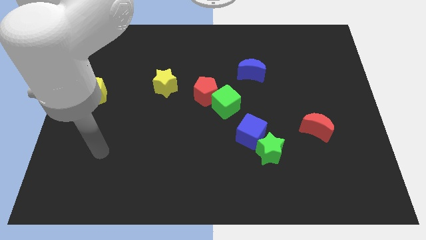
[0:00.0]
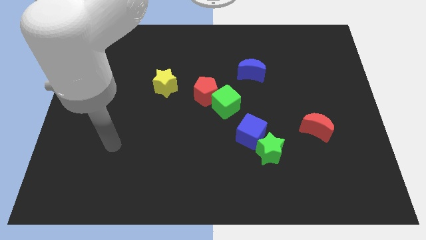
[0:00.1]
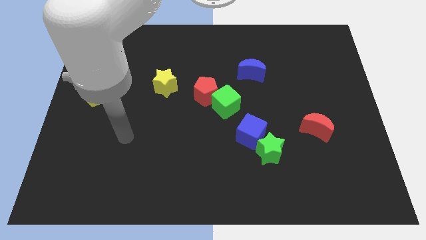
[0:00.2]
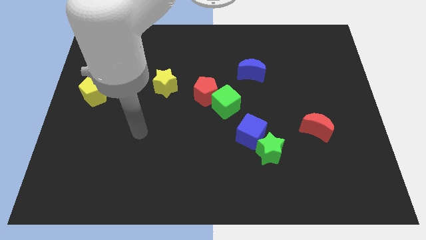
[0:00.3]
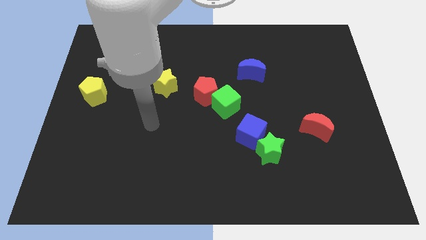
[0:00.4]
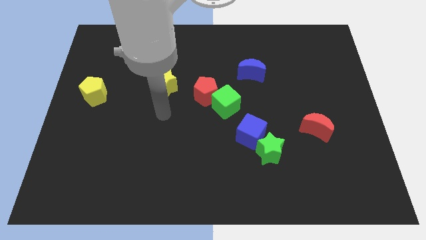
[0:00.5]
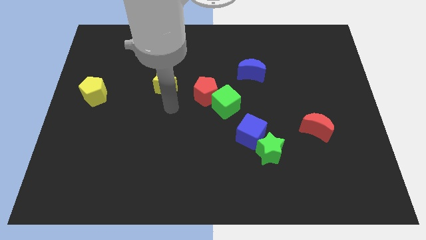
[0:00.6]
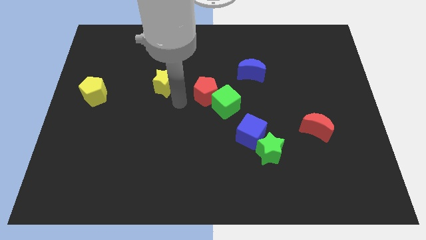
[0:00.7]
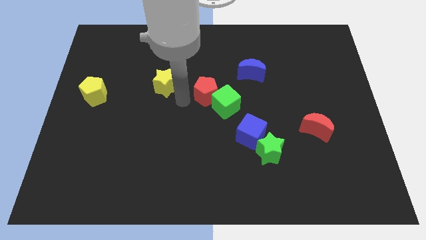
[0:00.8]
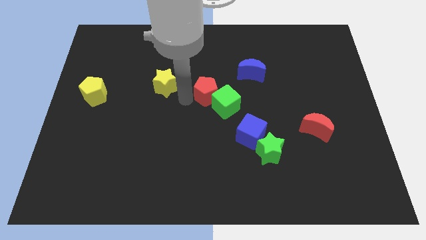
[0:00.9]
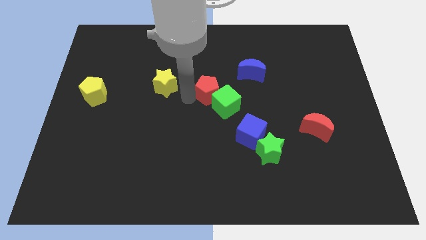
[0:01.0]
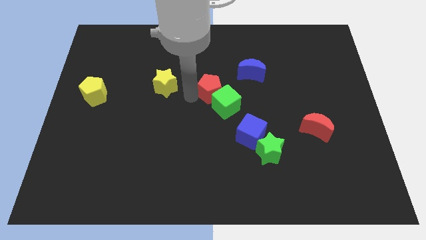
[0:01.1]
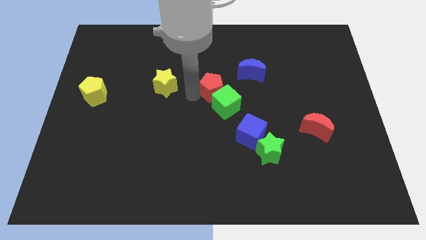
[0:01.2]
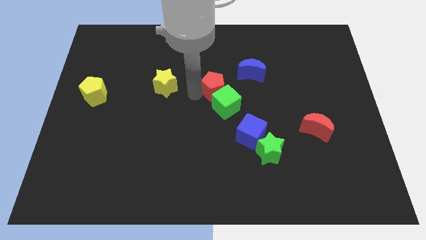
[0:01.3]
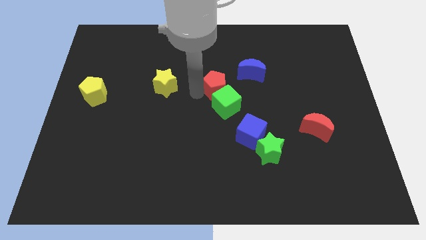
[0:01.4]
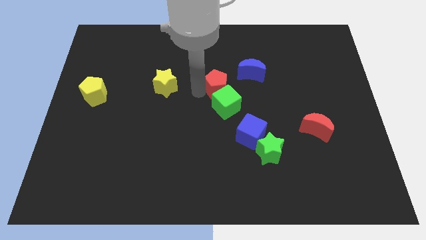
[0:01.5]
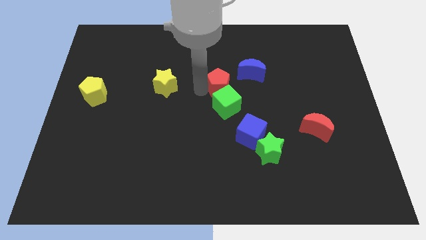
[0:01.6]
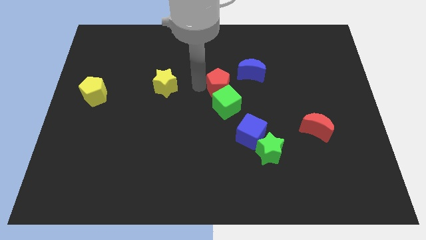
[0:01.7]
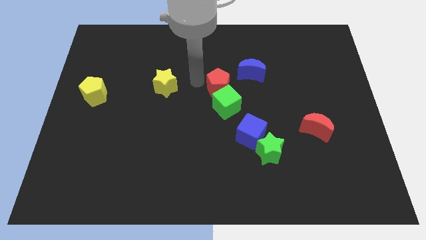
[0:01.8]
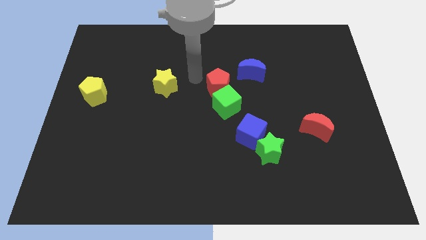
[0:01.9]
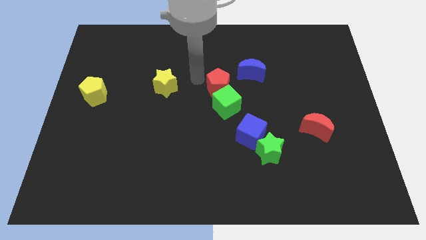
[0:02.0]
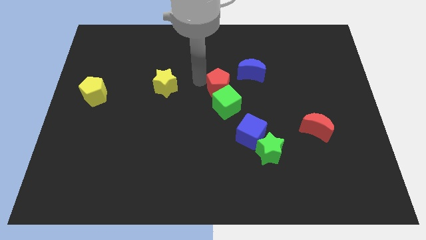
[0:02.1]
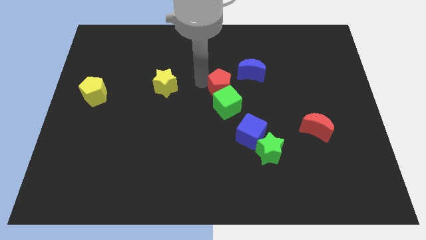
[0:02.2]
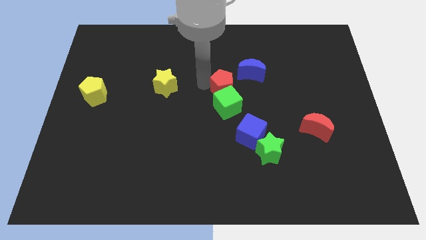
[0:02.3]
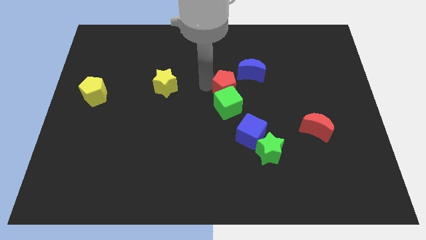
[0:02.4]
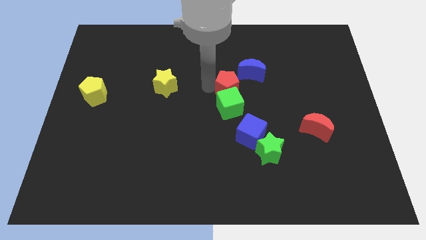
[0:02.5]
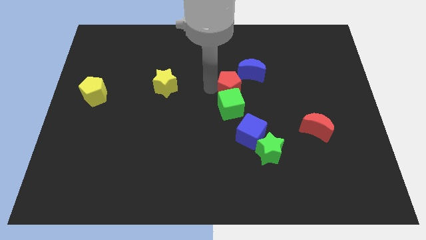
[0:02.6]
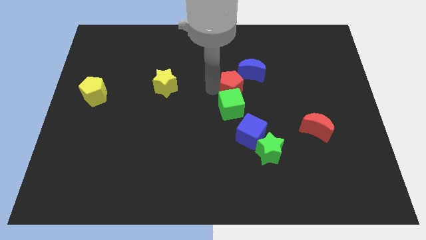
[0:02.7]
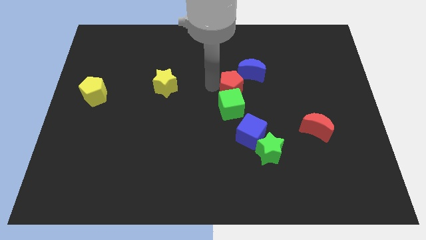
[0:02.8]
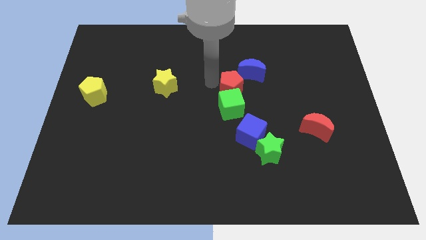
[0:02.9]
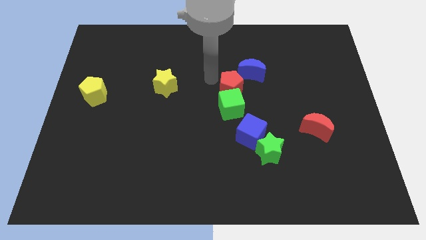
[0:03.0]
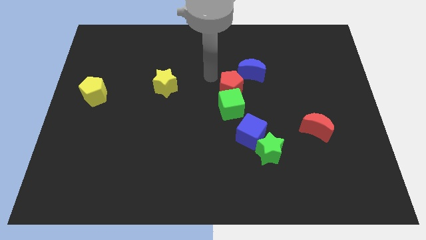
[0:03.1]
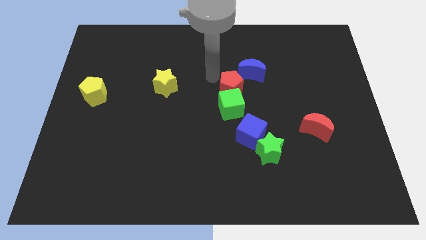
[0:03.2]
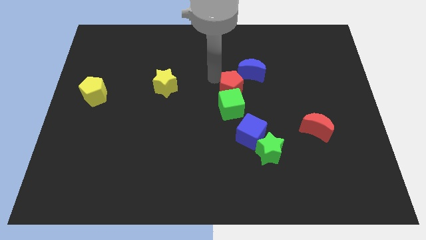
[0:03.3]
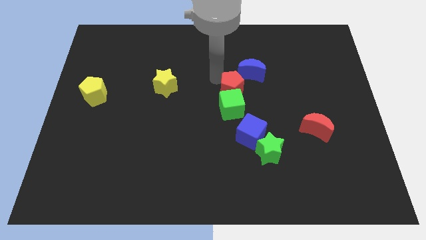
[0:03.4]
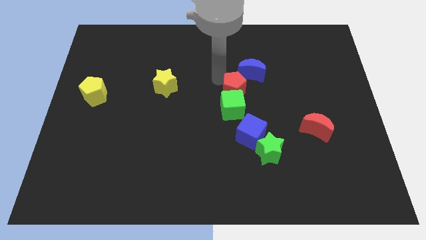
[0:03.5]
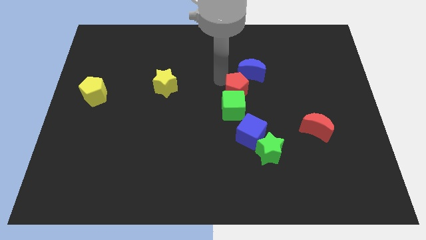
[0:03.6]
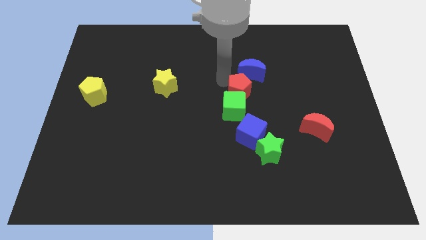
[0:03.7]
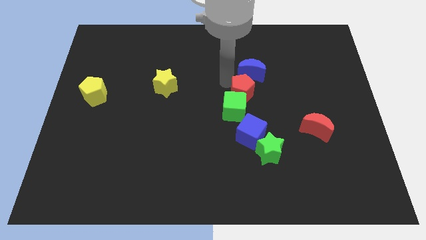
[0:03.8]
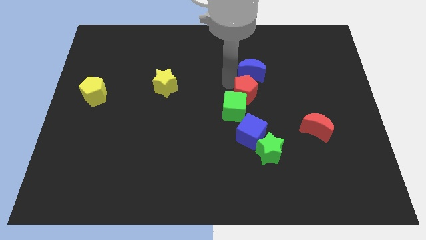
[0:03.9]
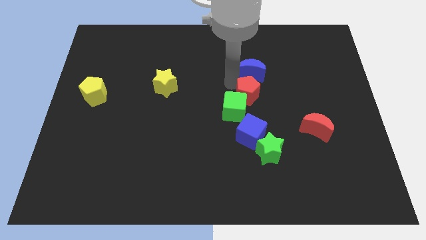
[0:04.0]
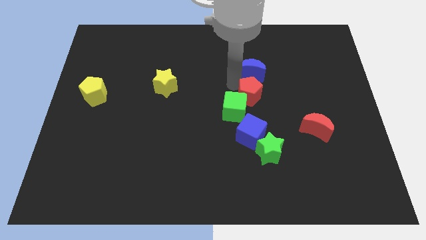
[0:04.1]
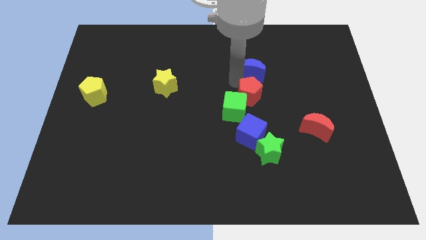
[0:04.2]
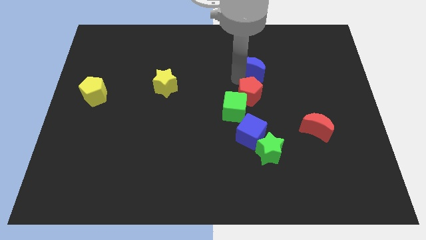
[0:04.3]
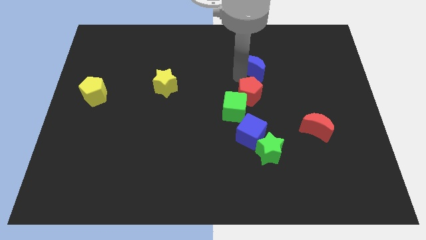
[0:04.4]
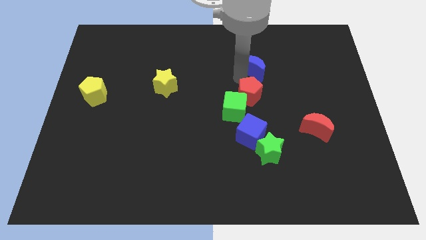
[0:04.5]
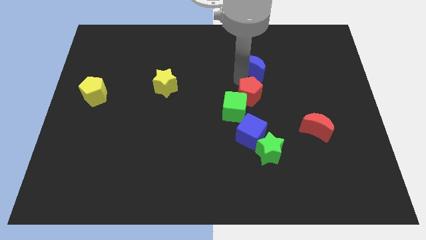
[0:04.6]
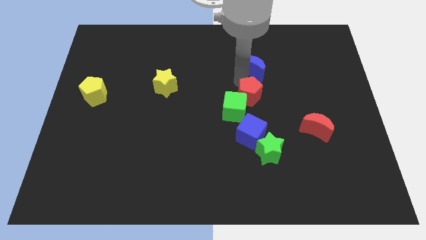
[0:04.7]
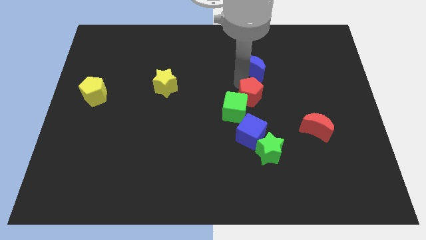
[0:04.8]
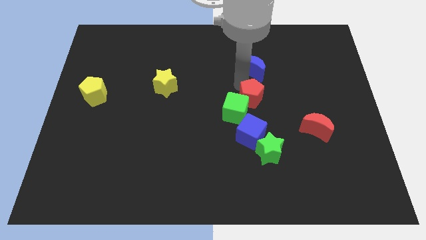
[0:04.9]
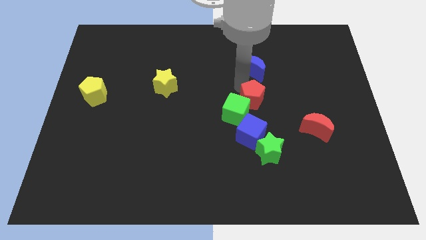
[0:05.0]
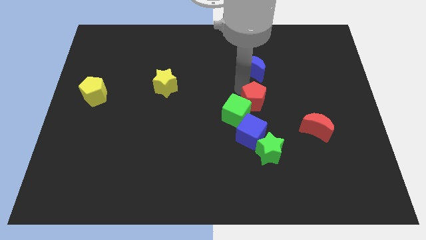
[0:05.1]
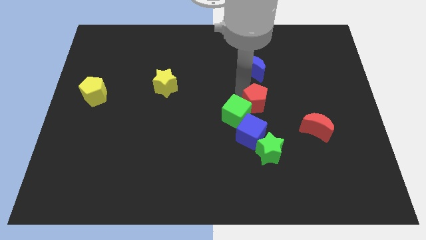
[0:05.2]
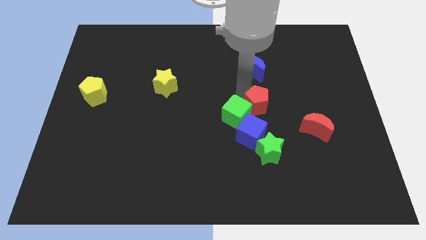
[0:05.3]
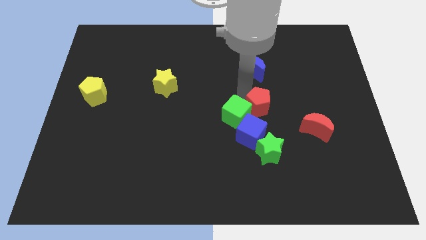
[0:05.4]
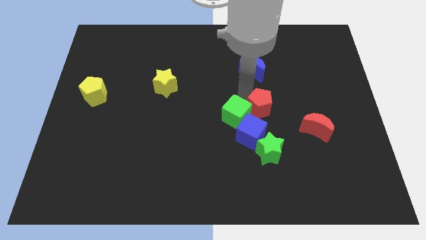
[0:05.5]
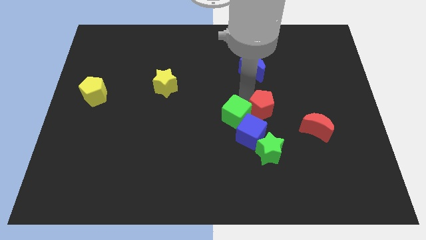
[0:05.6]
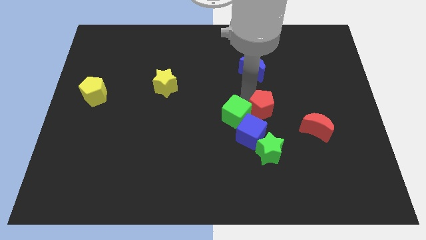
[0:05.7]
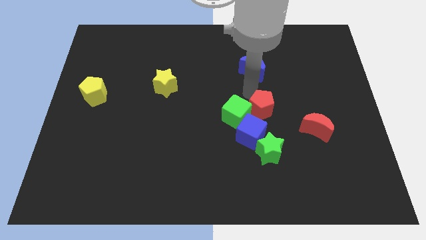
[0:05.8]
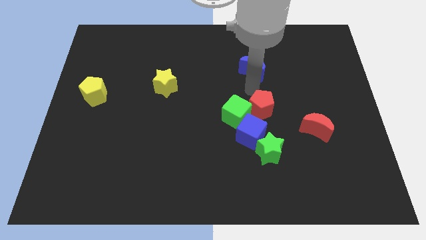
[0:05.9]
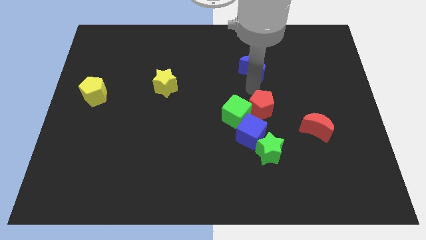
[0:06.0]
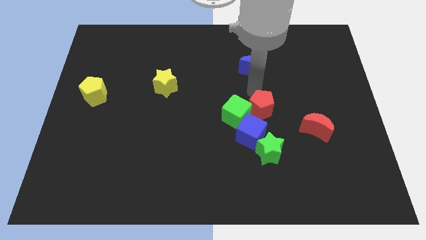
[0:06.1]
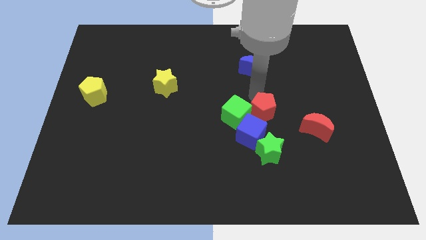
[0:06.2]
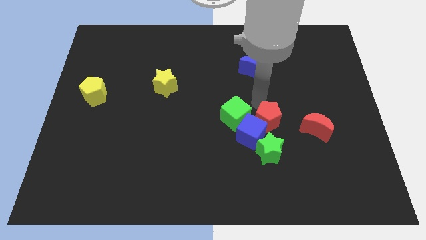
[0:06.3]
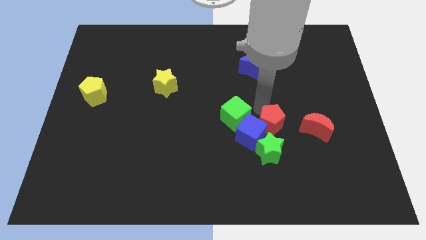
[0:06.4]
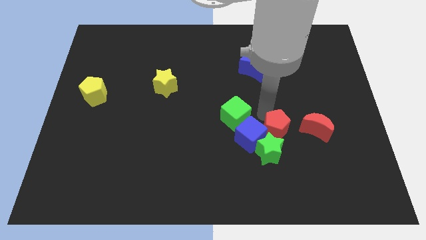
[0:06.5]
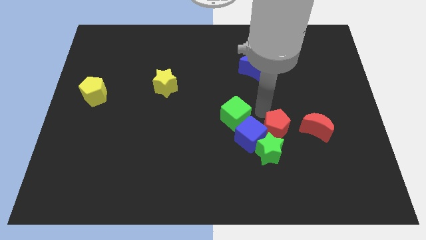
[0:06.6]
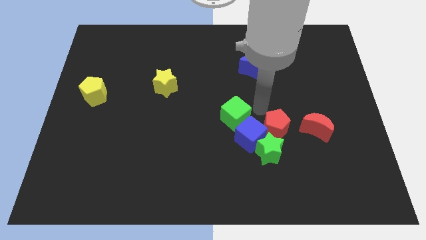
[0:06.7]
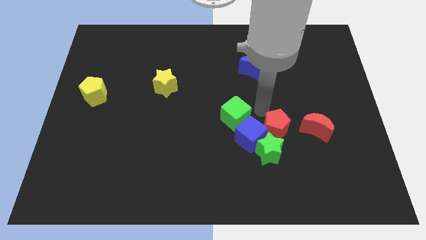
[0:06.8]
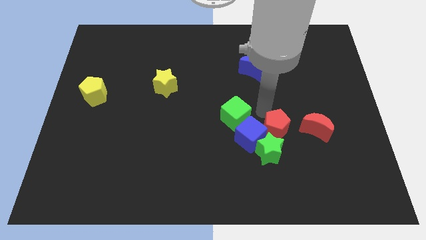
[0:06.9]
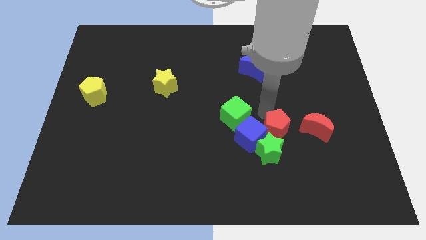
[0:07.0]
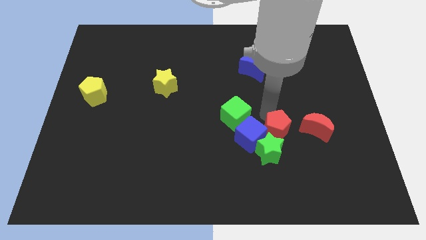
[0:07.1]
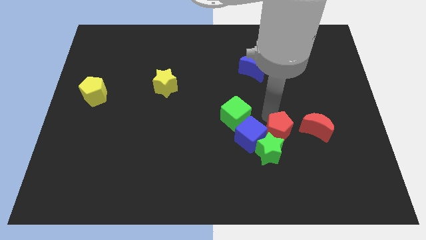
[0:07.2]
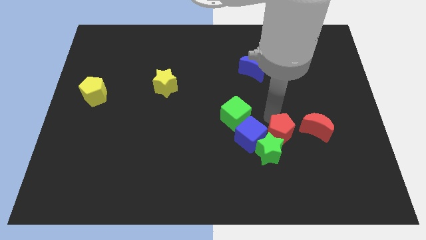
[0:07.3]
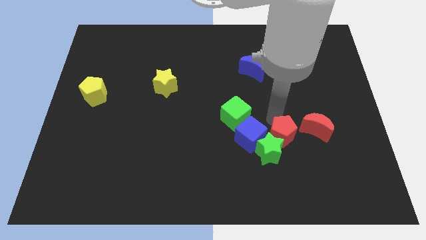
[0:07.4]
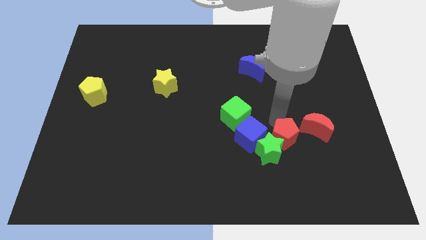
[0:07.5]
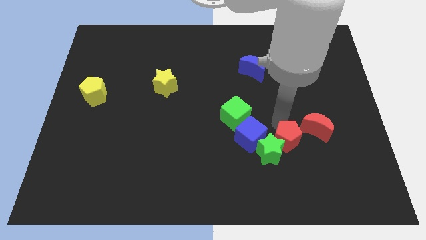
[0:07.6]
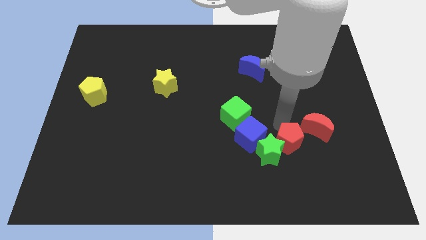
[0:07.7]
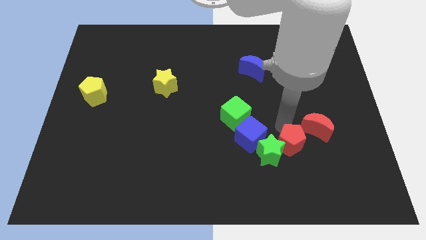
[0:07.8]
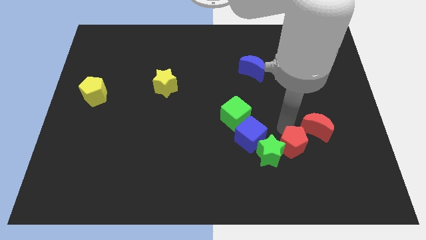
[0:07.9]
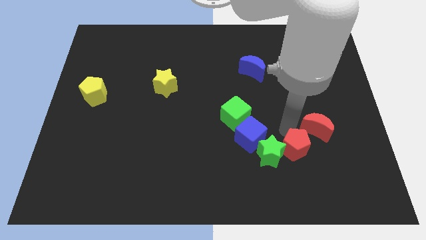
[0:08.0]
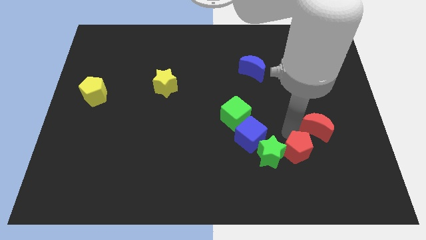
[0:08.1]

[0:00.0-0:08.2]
move the red pentagon to the bottom right of the green star
